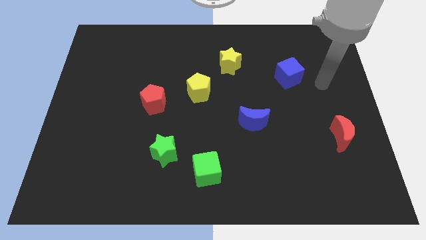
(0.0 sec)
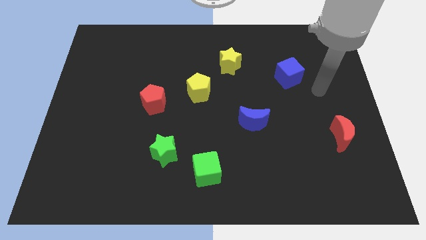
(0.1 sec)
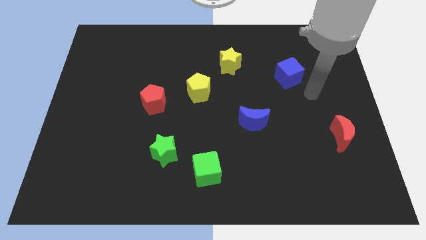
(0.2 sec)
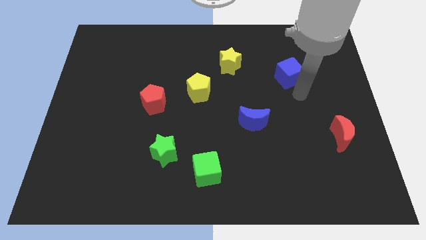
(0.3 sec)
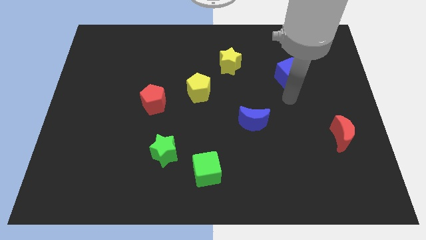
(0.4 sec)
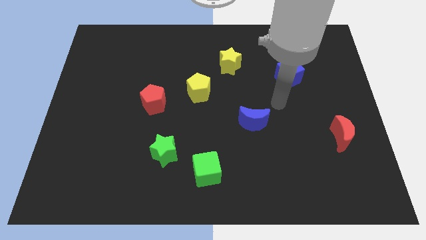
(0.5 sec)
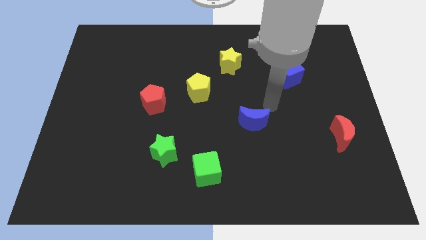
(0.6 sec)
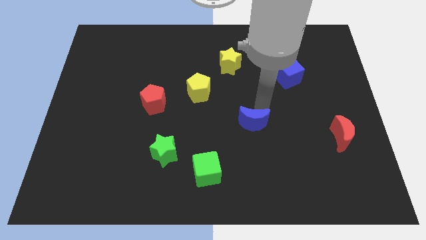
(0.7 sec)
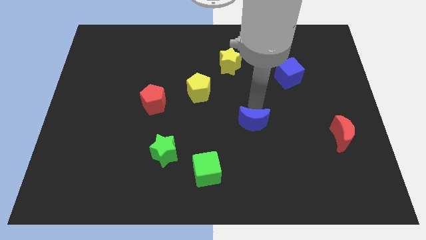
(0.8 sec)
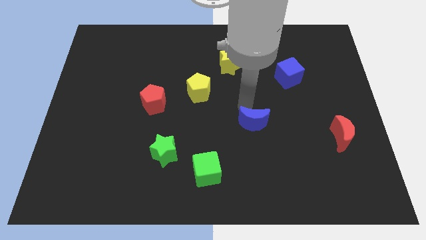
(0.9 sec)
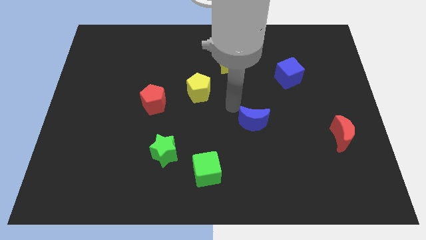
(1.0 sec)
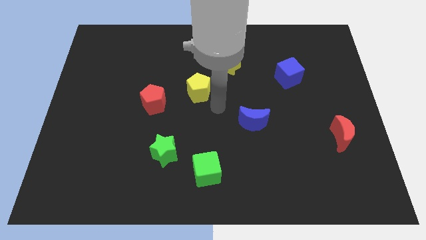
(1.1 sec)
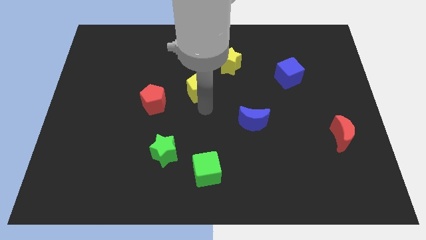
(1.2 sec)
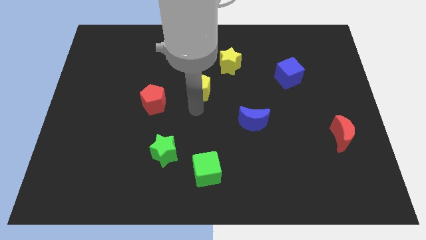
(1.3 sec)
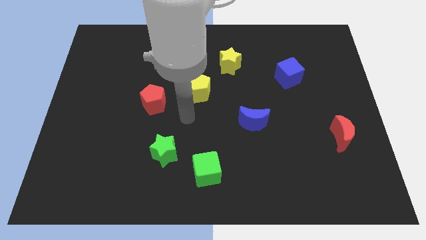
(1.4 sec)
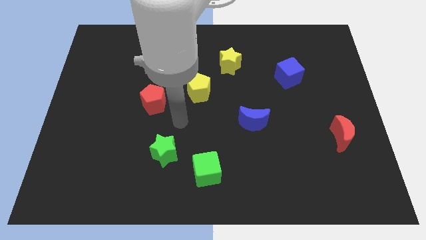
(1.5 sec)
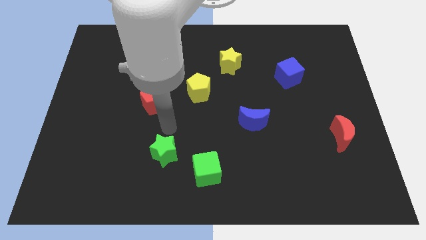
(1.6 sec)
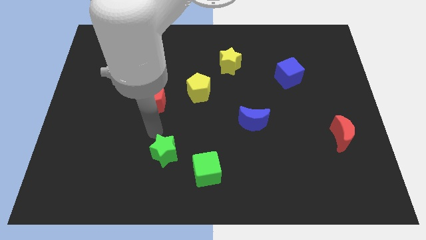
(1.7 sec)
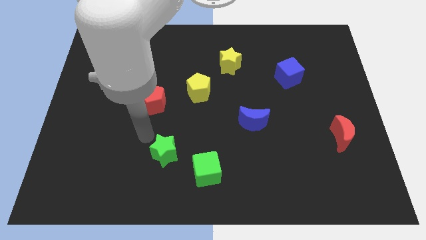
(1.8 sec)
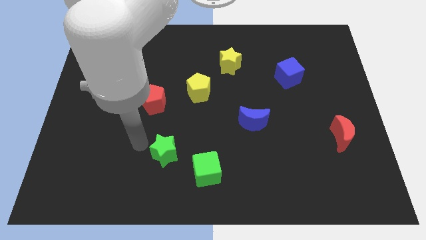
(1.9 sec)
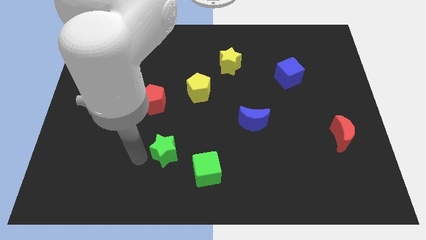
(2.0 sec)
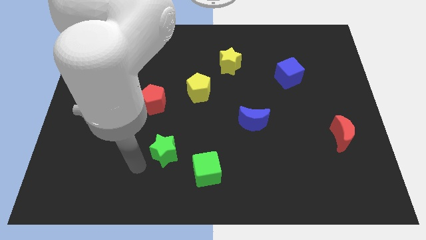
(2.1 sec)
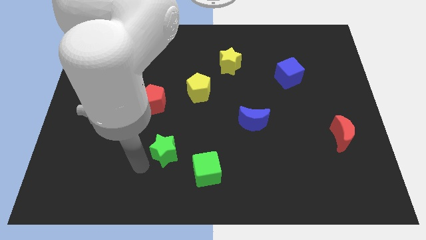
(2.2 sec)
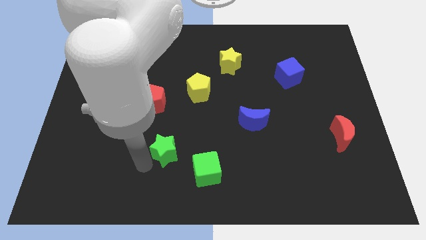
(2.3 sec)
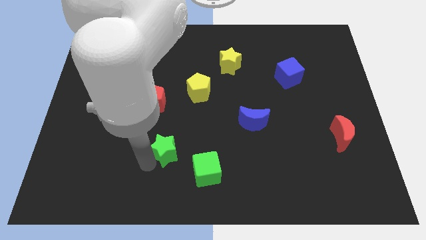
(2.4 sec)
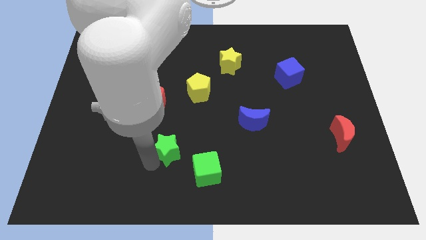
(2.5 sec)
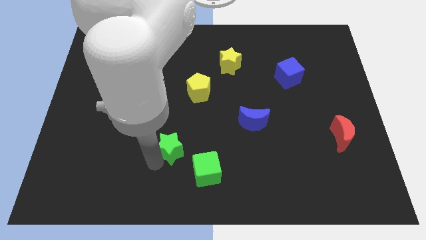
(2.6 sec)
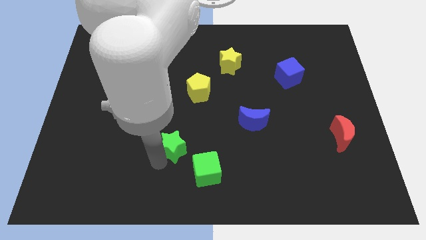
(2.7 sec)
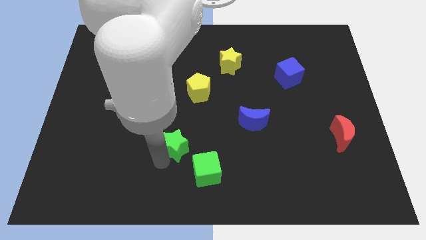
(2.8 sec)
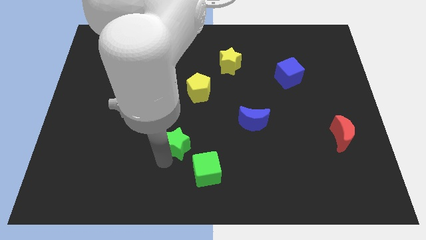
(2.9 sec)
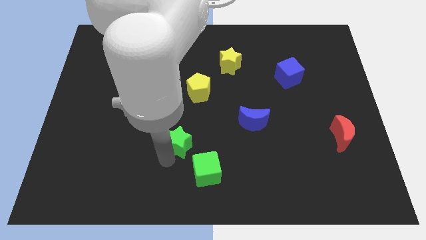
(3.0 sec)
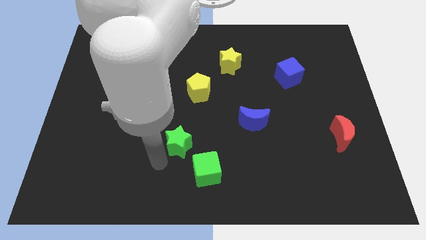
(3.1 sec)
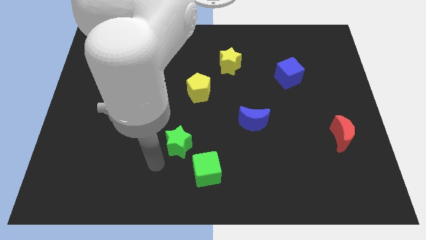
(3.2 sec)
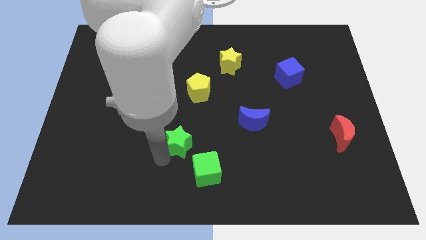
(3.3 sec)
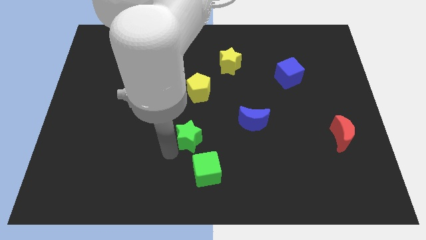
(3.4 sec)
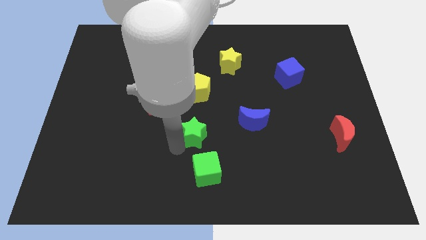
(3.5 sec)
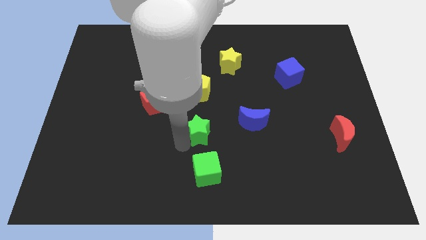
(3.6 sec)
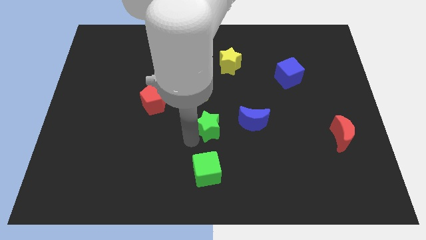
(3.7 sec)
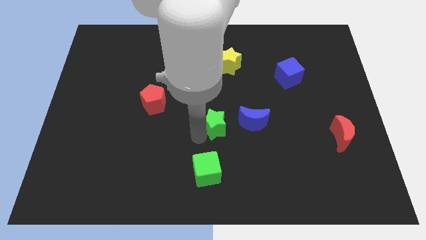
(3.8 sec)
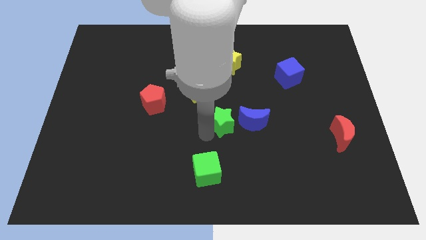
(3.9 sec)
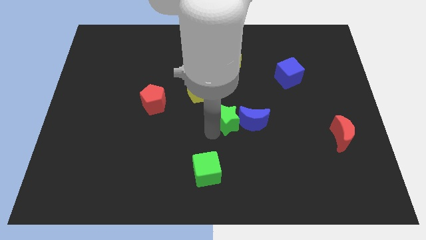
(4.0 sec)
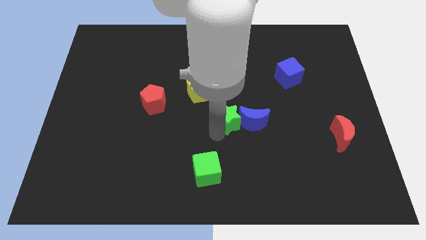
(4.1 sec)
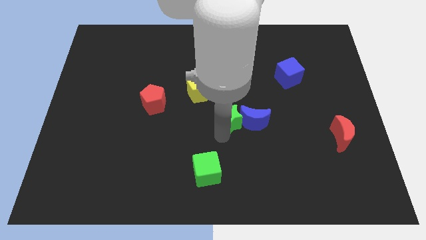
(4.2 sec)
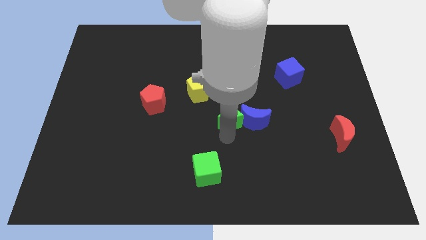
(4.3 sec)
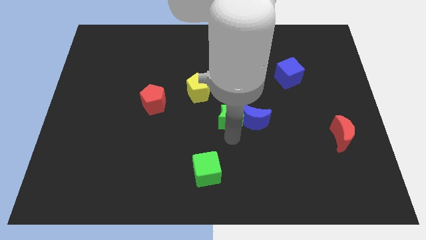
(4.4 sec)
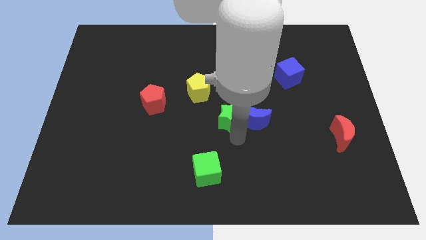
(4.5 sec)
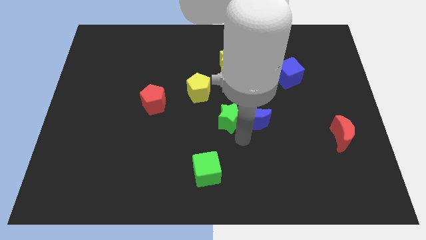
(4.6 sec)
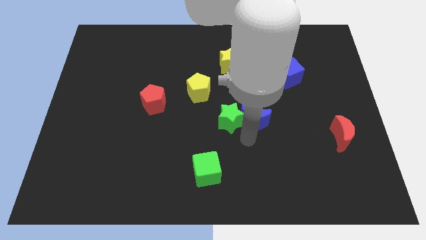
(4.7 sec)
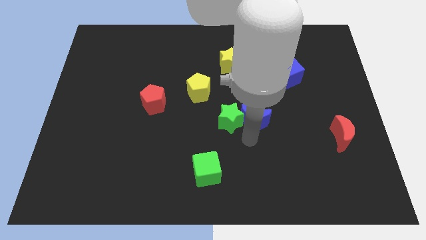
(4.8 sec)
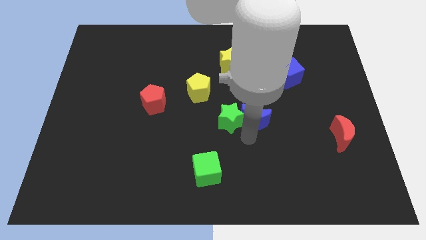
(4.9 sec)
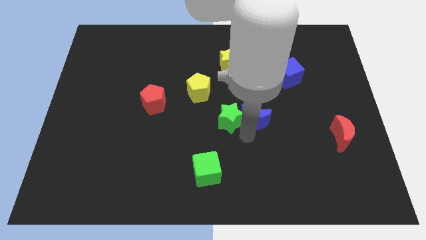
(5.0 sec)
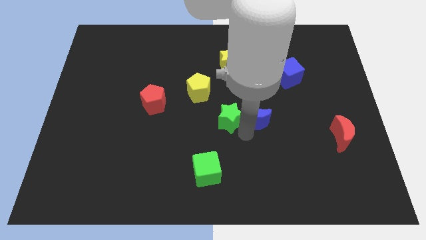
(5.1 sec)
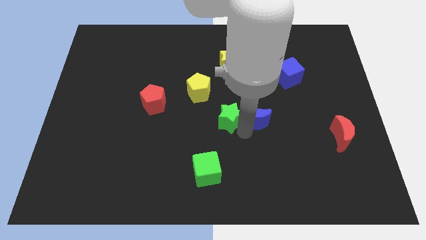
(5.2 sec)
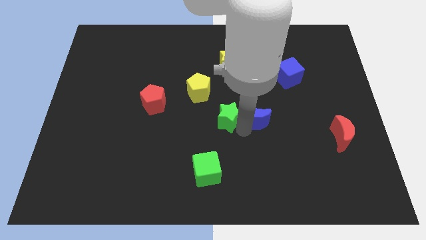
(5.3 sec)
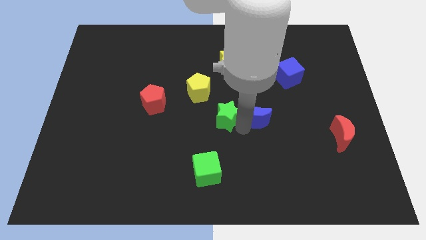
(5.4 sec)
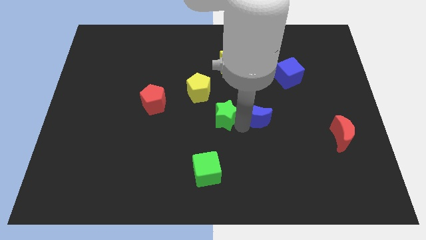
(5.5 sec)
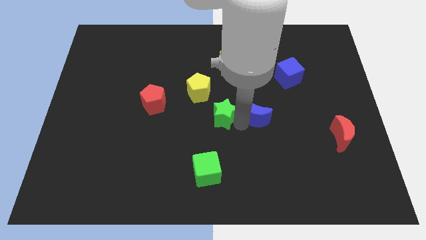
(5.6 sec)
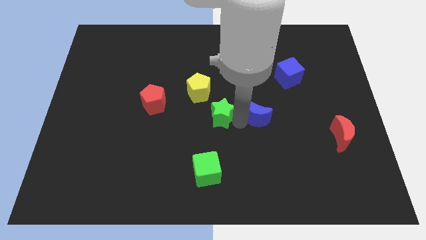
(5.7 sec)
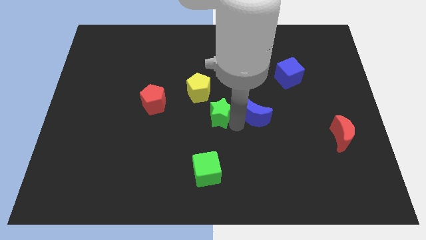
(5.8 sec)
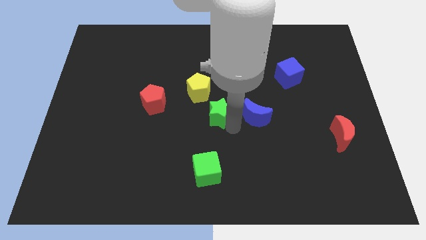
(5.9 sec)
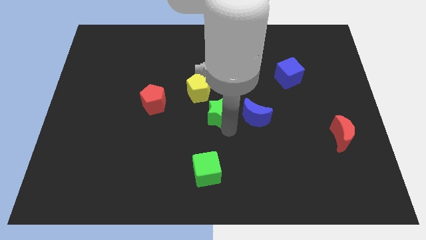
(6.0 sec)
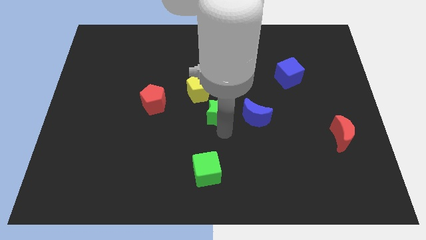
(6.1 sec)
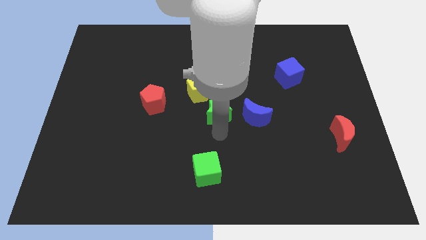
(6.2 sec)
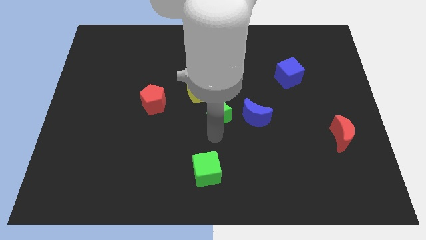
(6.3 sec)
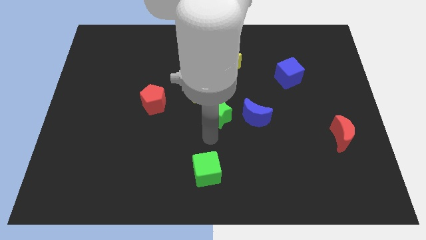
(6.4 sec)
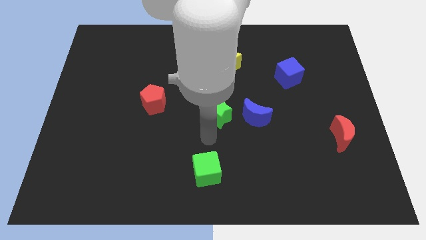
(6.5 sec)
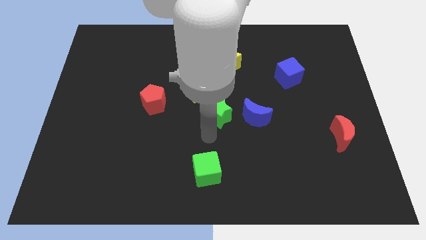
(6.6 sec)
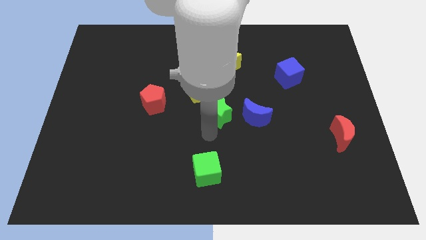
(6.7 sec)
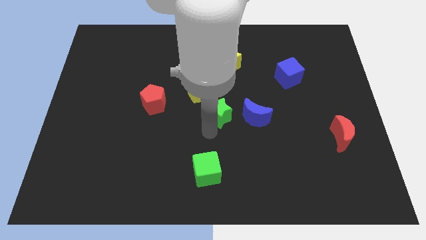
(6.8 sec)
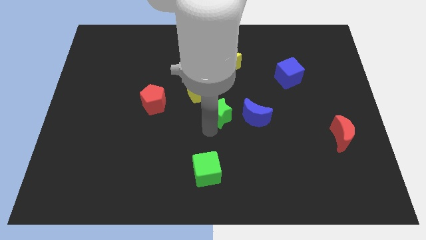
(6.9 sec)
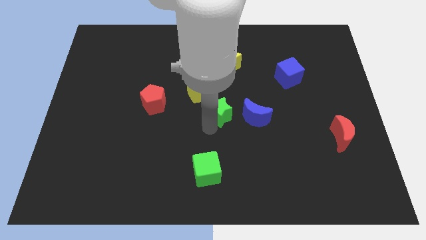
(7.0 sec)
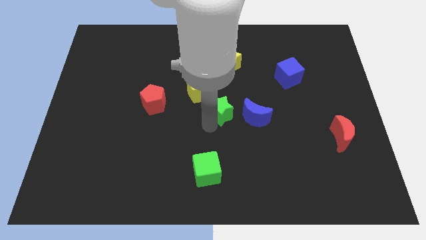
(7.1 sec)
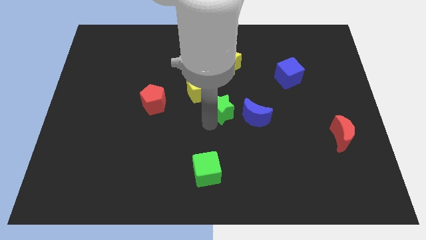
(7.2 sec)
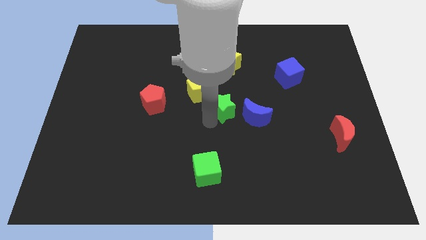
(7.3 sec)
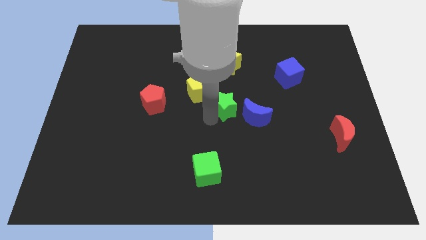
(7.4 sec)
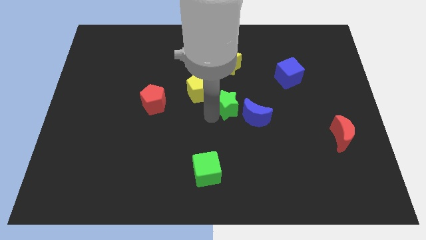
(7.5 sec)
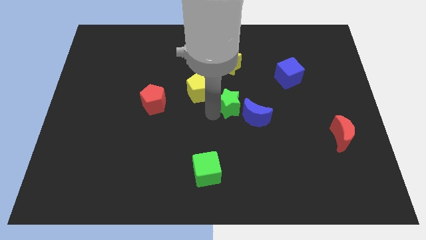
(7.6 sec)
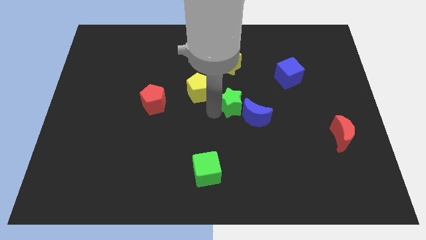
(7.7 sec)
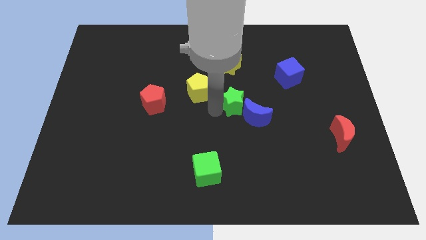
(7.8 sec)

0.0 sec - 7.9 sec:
slide the green star up and then to the right

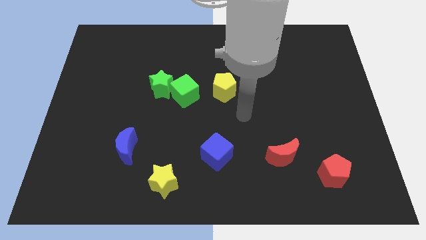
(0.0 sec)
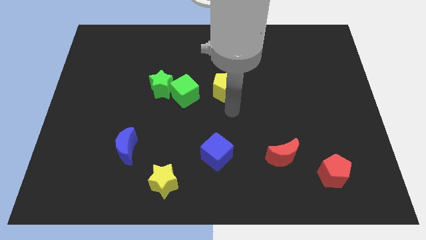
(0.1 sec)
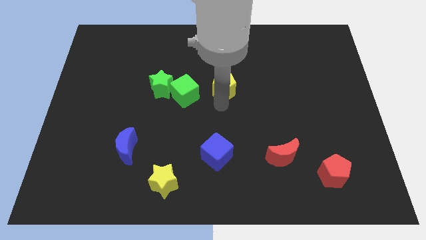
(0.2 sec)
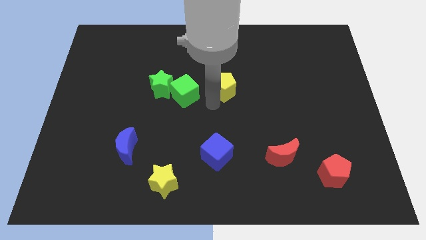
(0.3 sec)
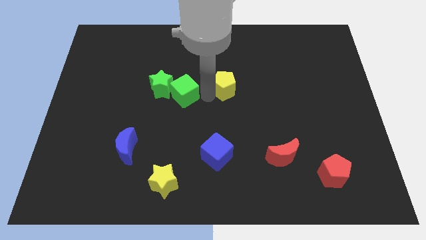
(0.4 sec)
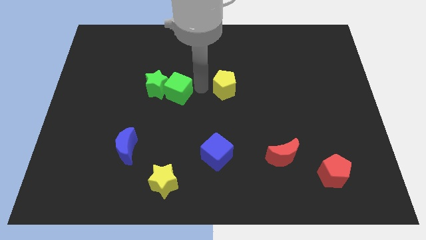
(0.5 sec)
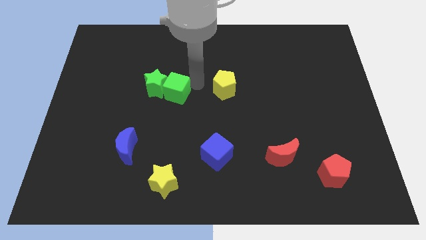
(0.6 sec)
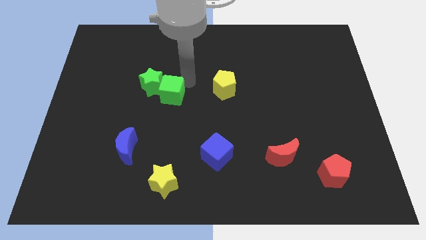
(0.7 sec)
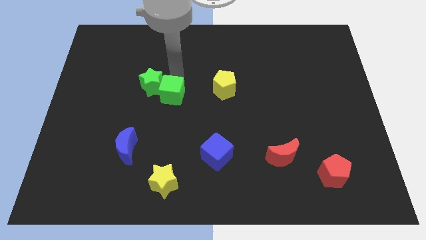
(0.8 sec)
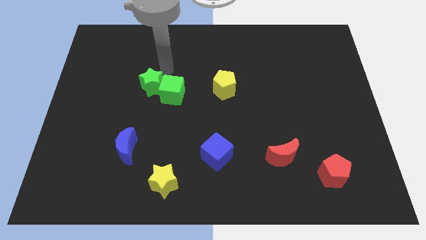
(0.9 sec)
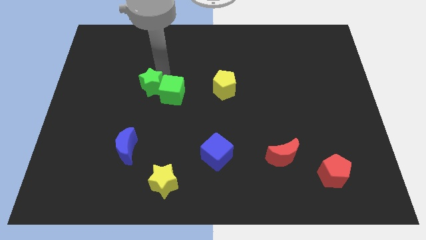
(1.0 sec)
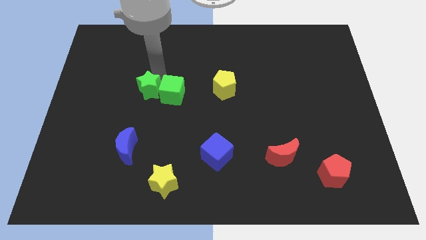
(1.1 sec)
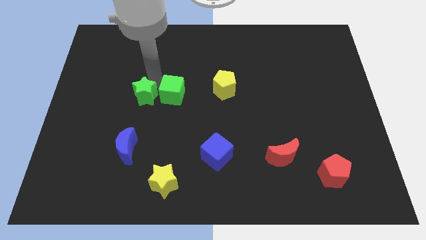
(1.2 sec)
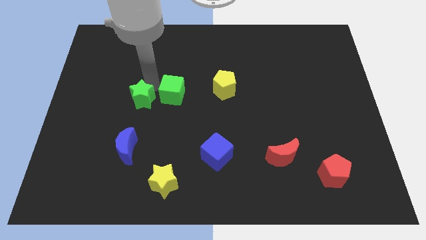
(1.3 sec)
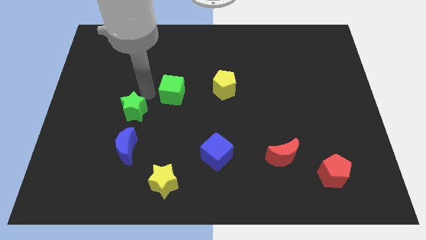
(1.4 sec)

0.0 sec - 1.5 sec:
push the green star slightly downwards and left diagonally
